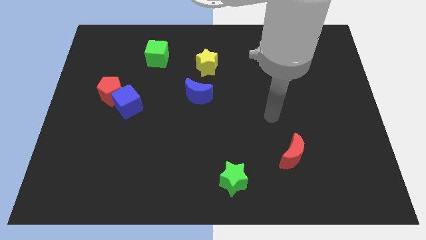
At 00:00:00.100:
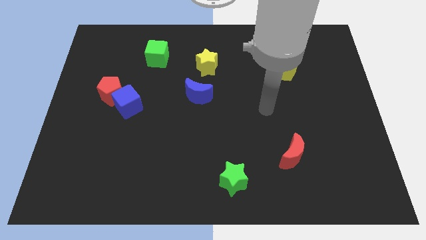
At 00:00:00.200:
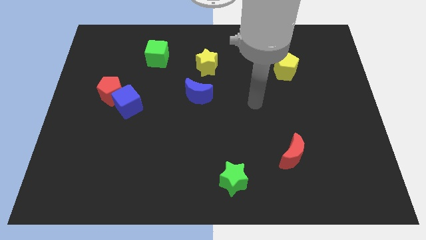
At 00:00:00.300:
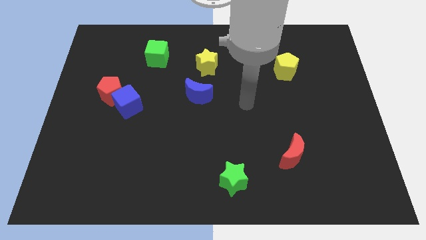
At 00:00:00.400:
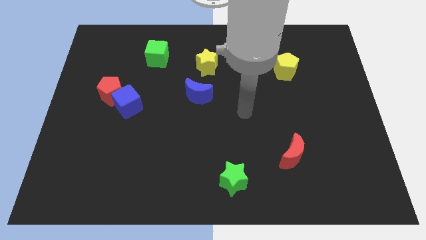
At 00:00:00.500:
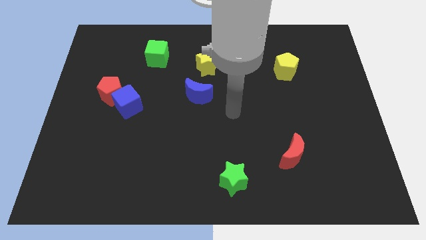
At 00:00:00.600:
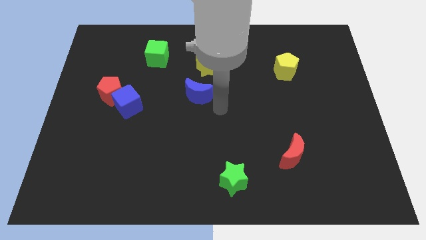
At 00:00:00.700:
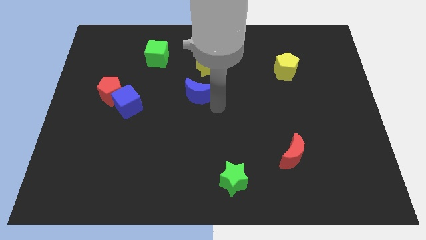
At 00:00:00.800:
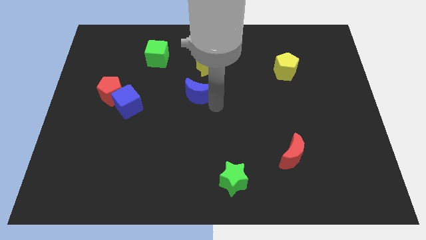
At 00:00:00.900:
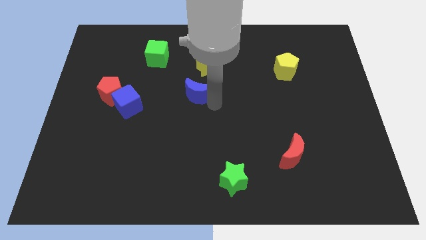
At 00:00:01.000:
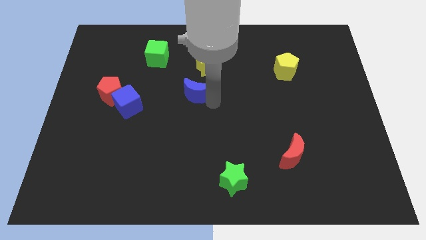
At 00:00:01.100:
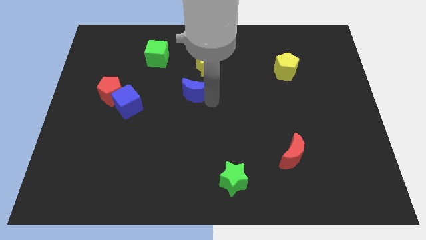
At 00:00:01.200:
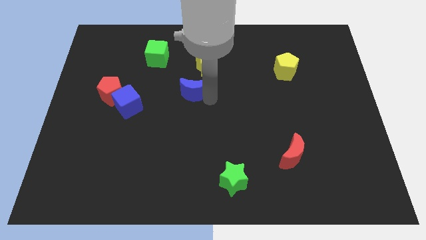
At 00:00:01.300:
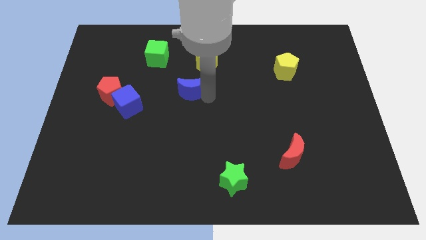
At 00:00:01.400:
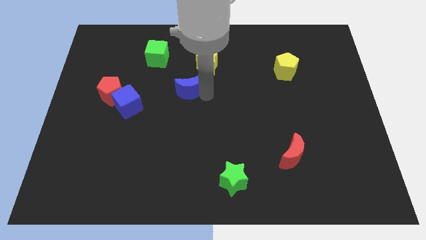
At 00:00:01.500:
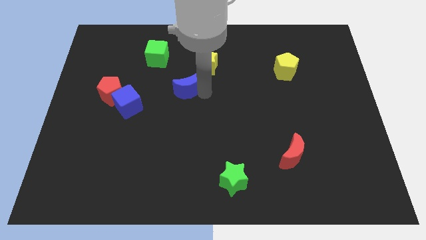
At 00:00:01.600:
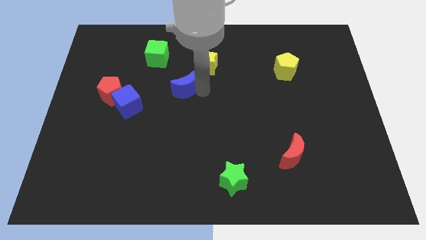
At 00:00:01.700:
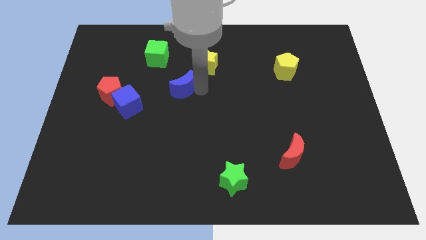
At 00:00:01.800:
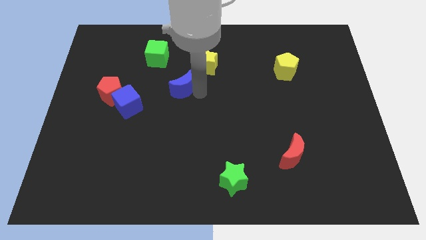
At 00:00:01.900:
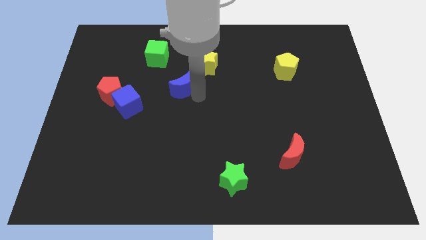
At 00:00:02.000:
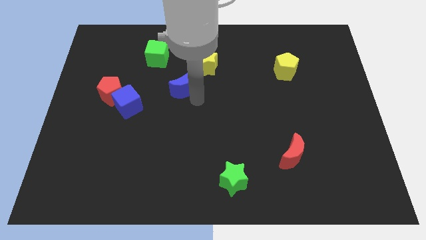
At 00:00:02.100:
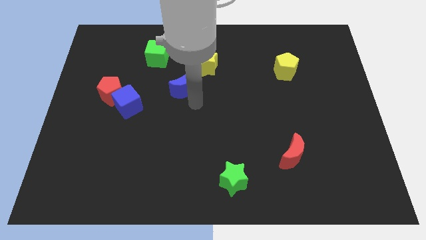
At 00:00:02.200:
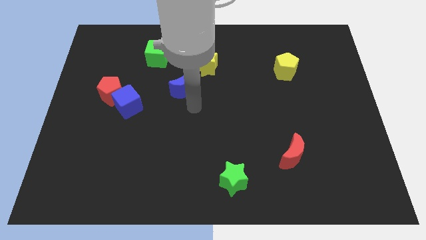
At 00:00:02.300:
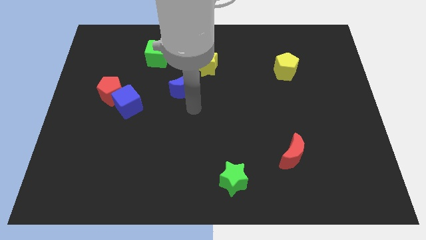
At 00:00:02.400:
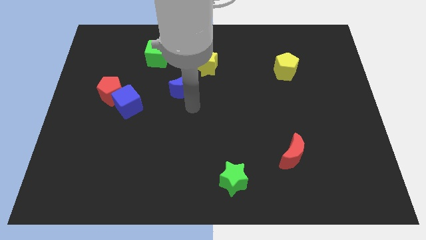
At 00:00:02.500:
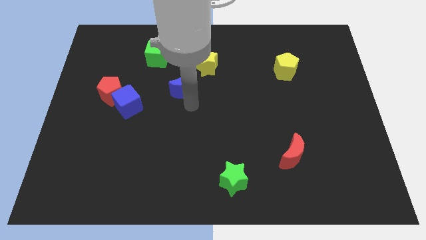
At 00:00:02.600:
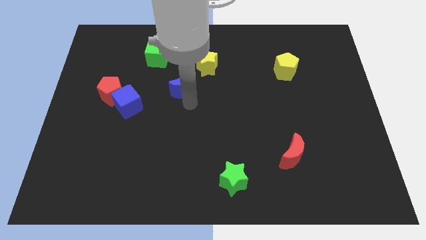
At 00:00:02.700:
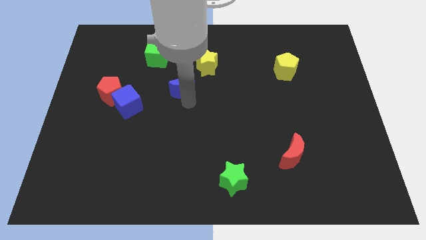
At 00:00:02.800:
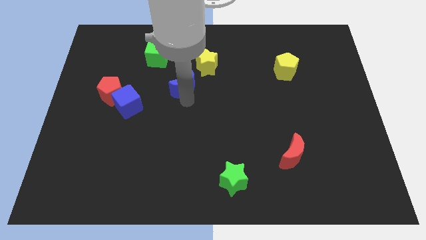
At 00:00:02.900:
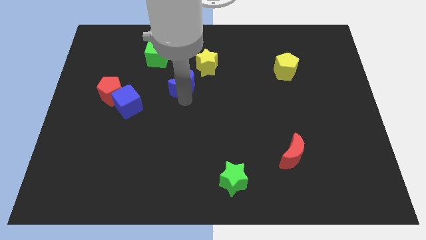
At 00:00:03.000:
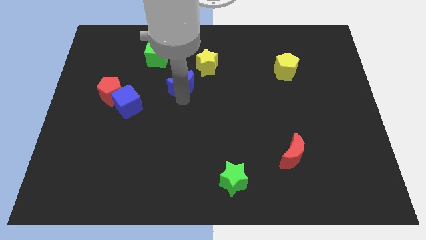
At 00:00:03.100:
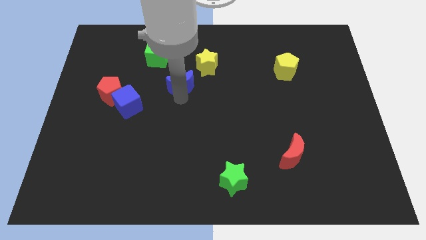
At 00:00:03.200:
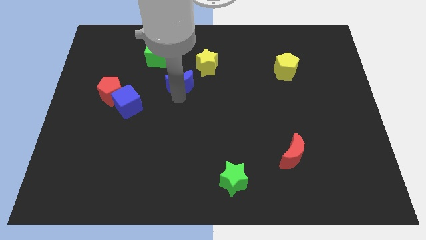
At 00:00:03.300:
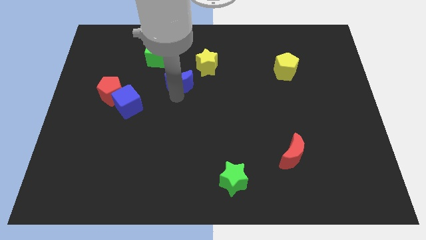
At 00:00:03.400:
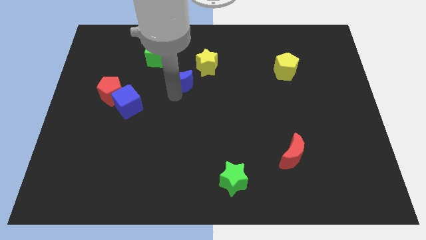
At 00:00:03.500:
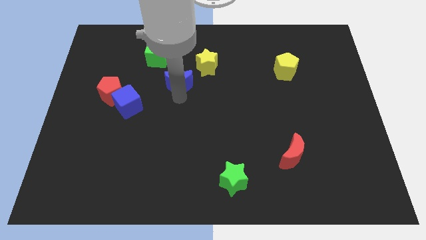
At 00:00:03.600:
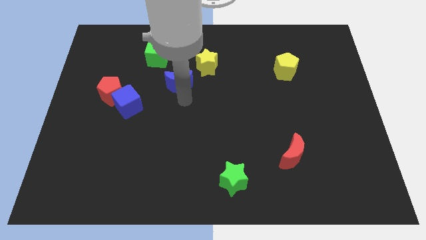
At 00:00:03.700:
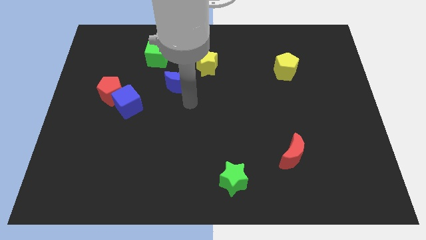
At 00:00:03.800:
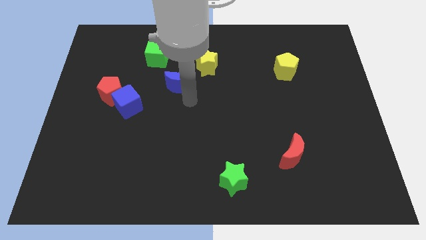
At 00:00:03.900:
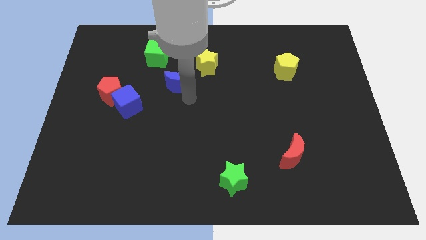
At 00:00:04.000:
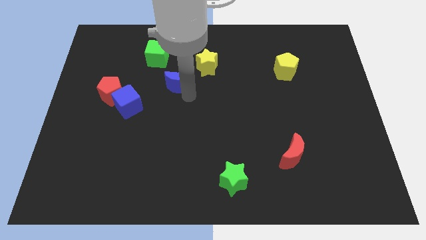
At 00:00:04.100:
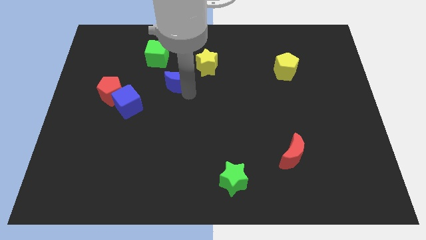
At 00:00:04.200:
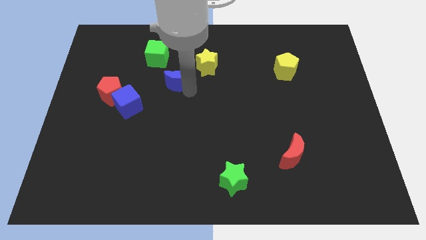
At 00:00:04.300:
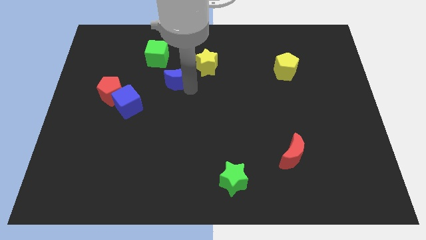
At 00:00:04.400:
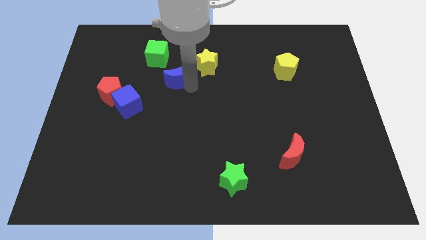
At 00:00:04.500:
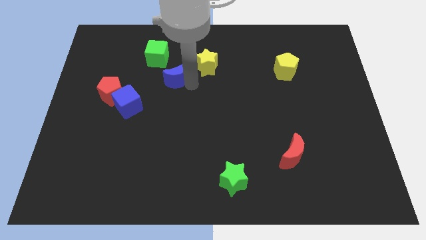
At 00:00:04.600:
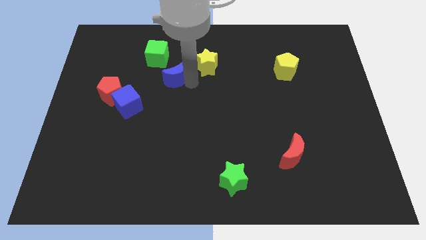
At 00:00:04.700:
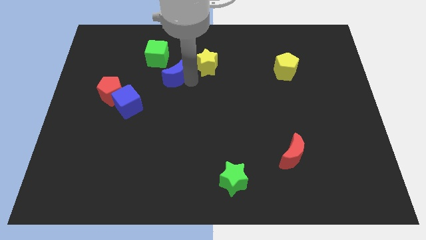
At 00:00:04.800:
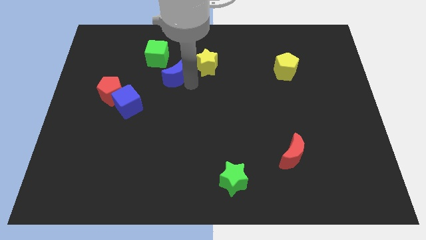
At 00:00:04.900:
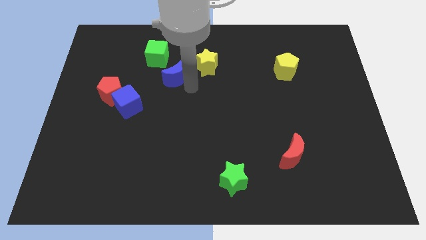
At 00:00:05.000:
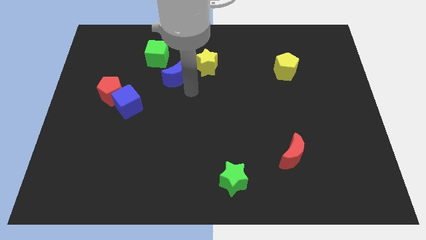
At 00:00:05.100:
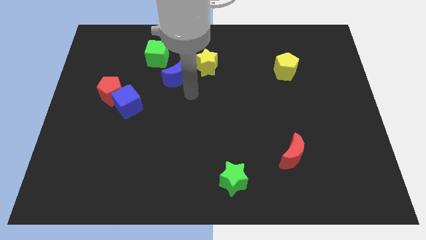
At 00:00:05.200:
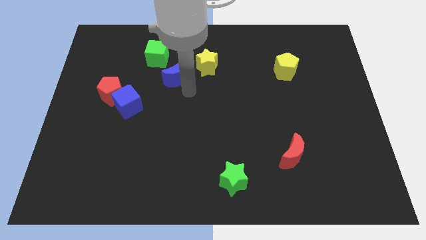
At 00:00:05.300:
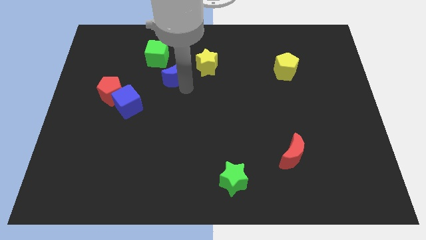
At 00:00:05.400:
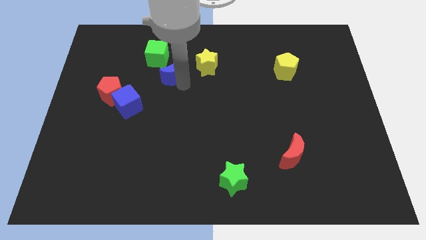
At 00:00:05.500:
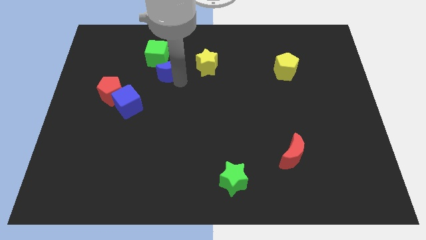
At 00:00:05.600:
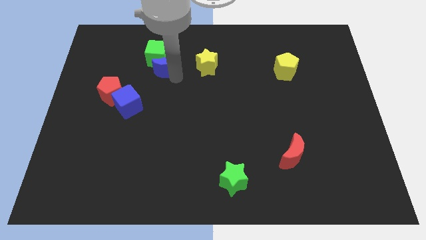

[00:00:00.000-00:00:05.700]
move the blue moon close to the green cube

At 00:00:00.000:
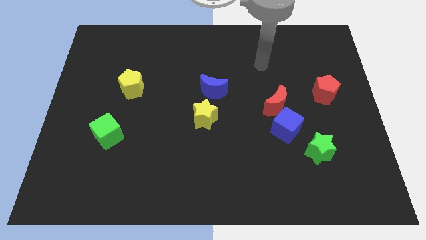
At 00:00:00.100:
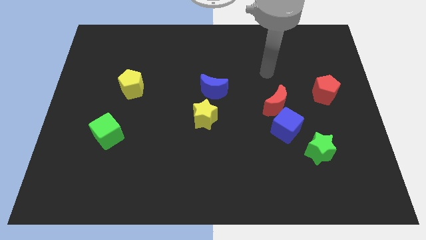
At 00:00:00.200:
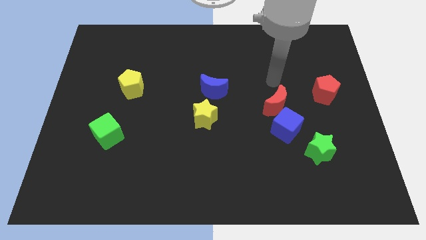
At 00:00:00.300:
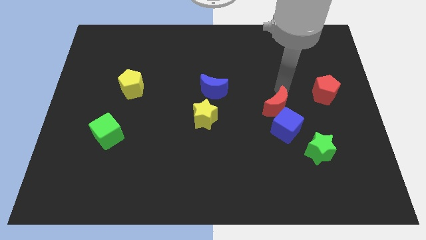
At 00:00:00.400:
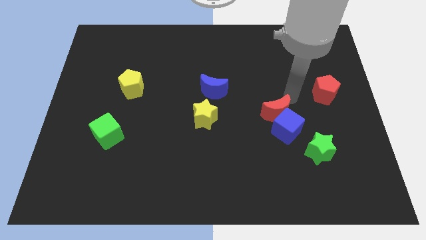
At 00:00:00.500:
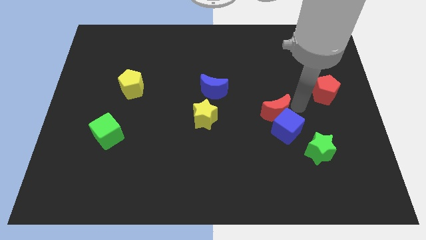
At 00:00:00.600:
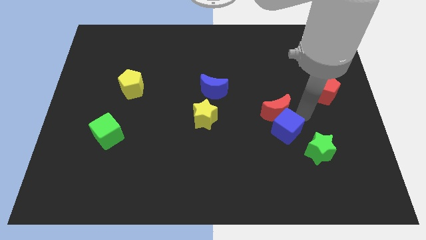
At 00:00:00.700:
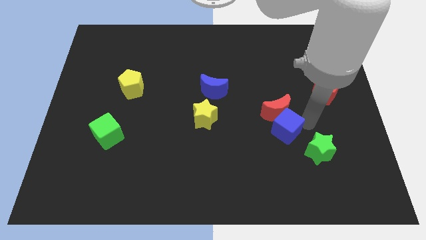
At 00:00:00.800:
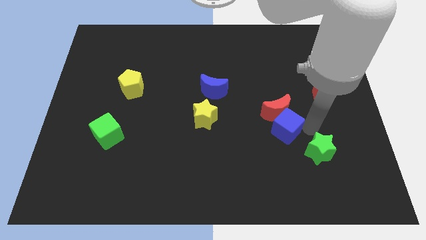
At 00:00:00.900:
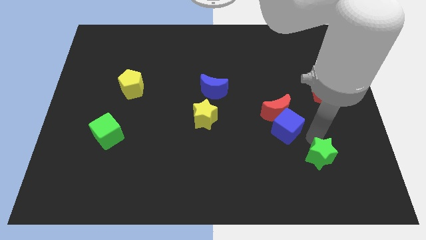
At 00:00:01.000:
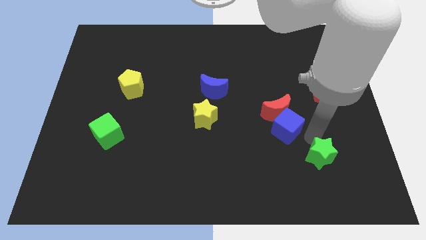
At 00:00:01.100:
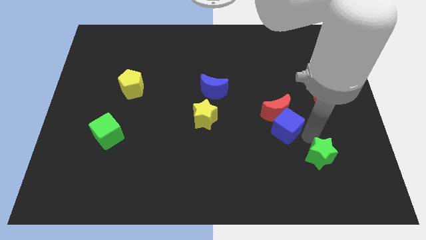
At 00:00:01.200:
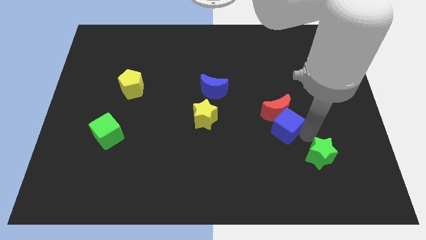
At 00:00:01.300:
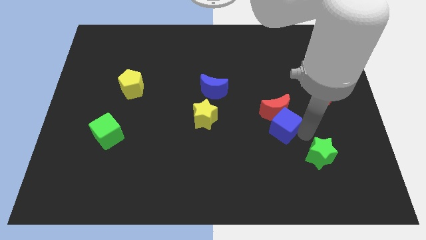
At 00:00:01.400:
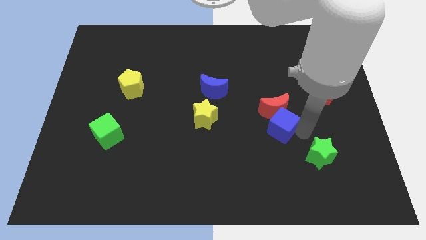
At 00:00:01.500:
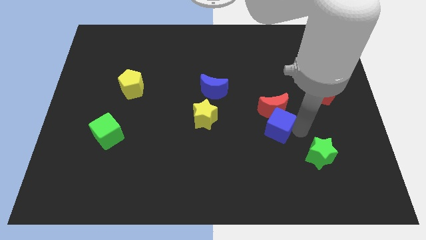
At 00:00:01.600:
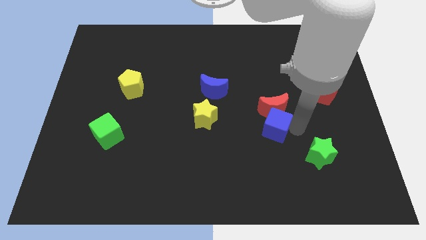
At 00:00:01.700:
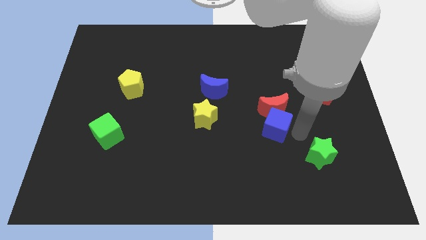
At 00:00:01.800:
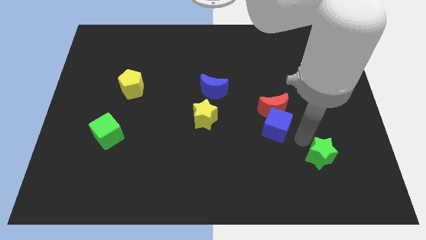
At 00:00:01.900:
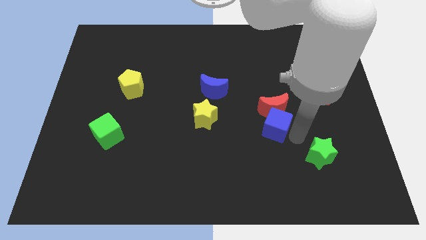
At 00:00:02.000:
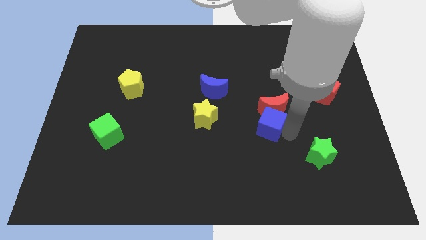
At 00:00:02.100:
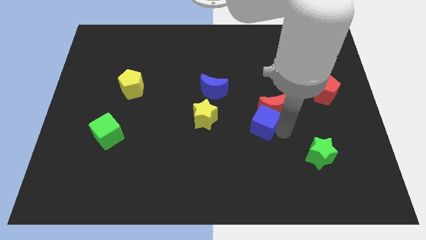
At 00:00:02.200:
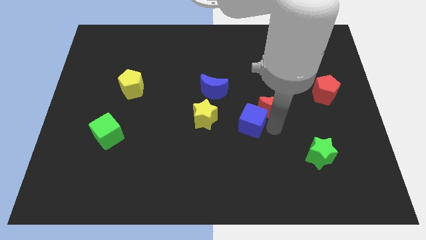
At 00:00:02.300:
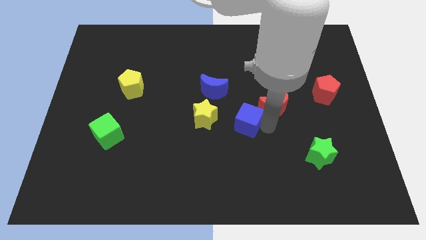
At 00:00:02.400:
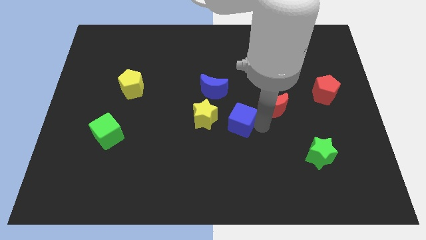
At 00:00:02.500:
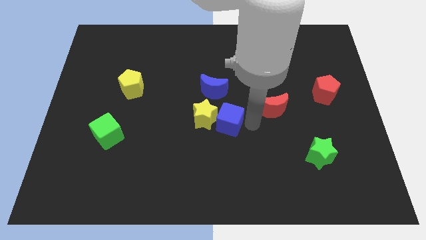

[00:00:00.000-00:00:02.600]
slide the blue cube to the yellow star
